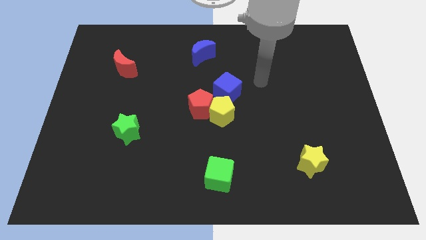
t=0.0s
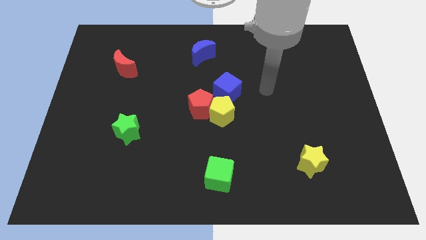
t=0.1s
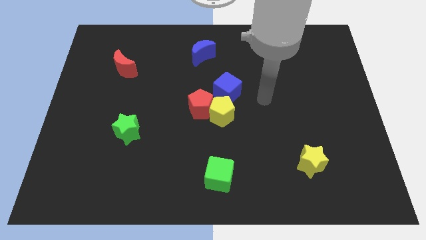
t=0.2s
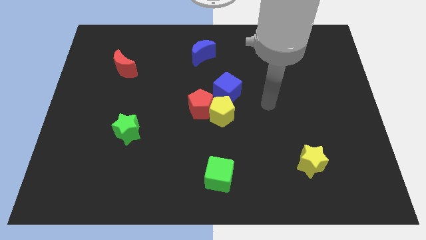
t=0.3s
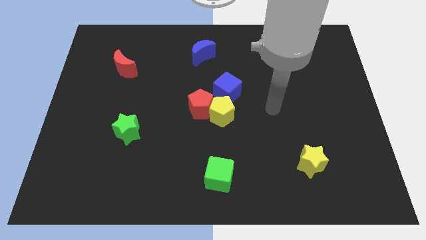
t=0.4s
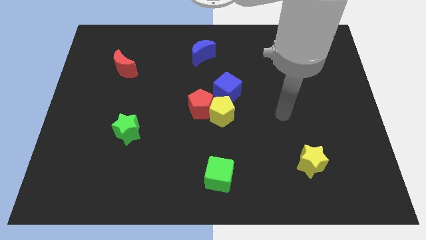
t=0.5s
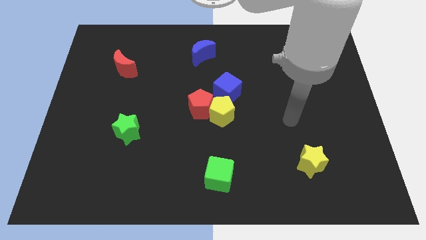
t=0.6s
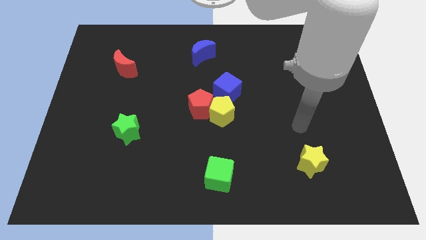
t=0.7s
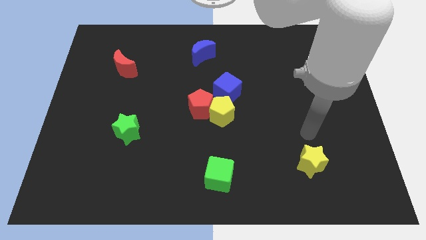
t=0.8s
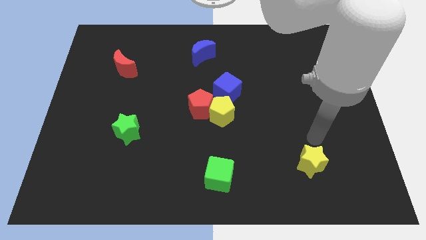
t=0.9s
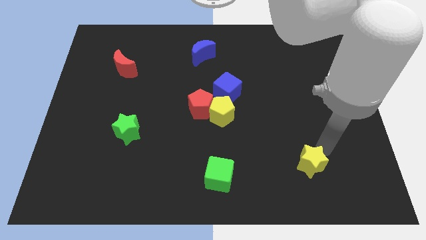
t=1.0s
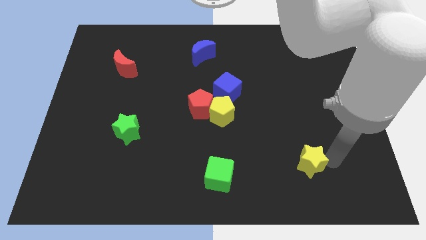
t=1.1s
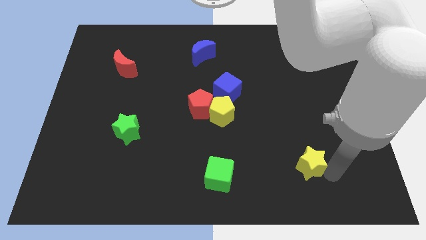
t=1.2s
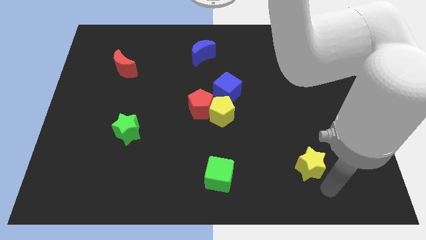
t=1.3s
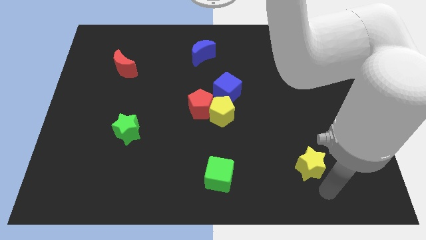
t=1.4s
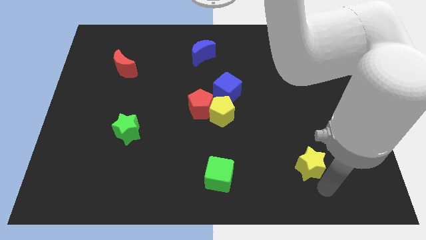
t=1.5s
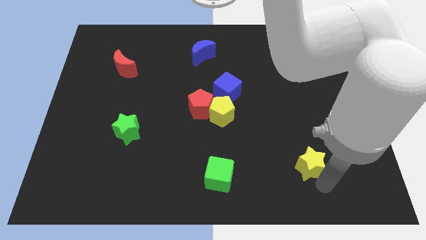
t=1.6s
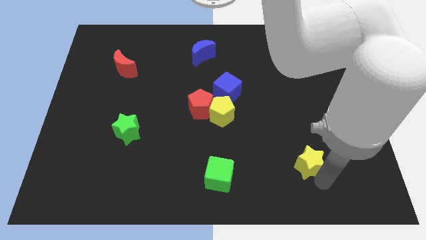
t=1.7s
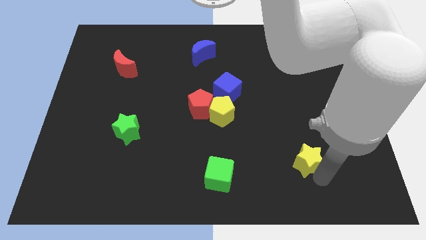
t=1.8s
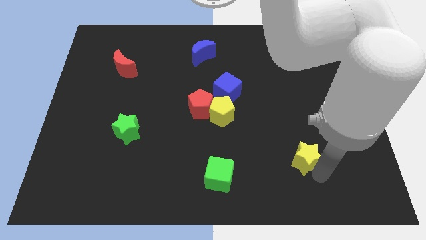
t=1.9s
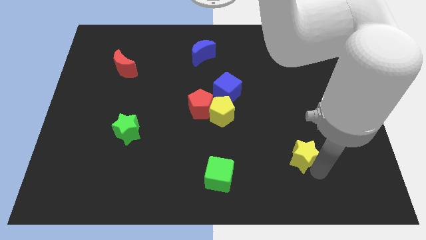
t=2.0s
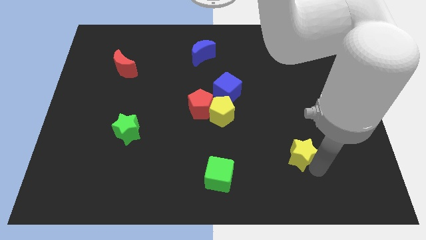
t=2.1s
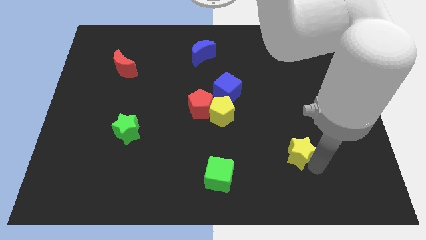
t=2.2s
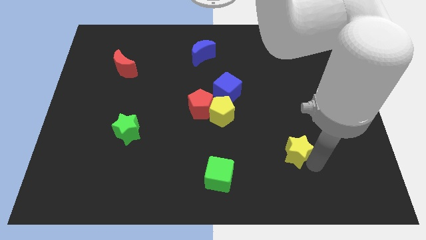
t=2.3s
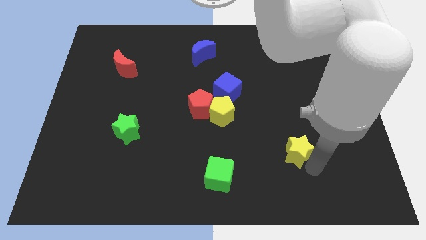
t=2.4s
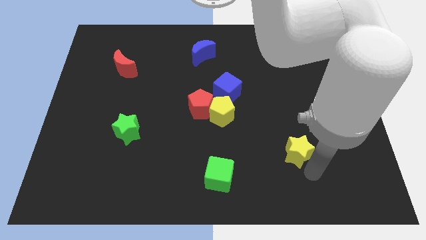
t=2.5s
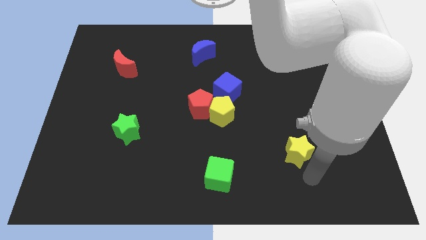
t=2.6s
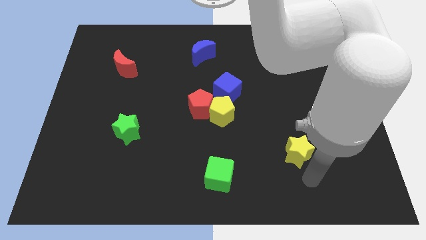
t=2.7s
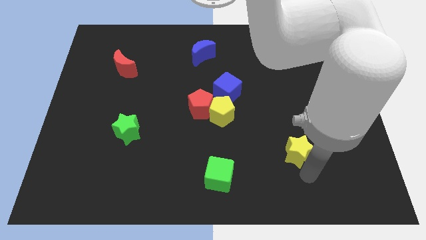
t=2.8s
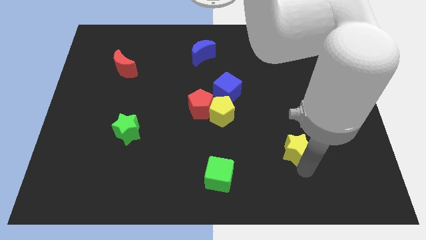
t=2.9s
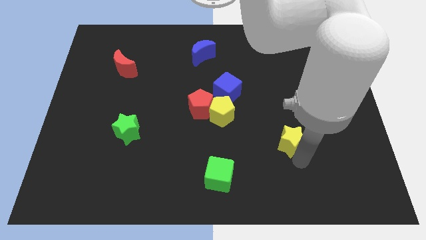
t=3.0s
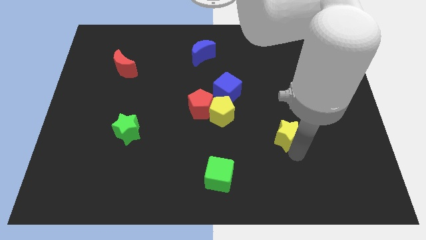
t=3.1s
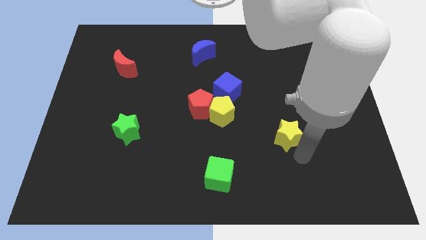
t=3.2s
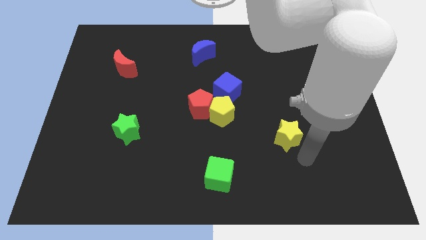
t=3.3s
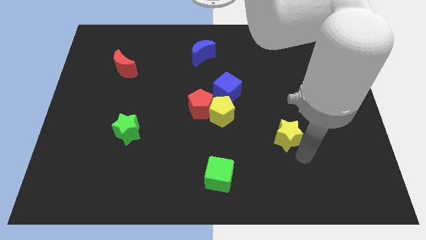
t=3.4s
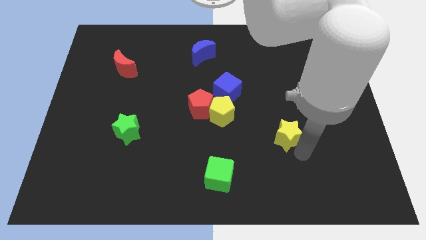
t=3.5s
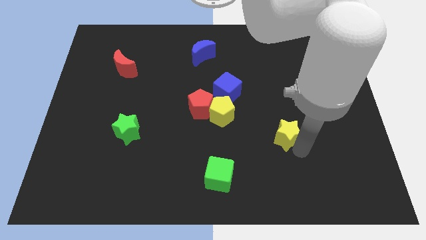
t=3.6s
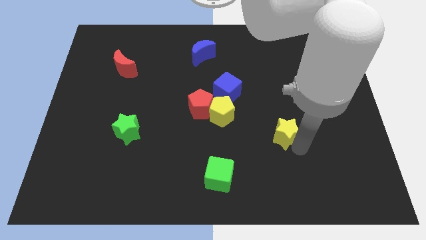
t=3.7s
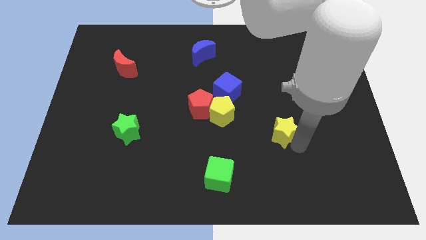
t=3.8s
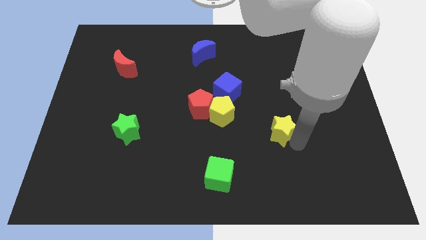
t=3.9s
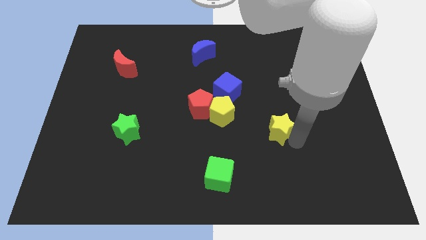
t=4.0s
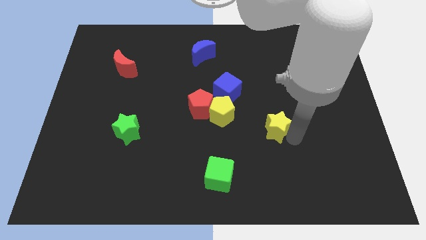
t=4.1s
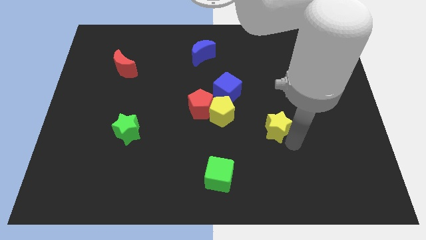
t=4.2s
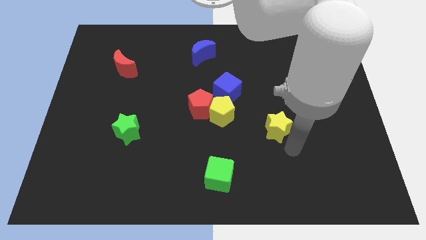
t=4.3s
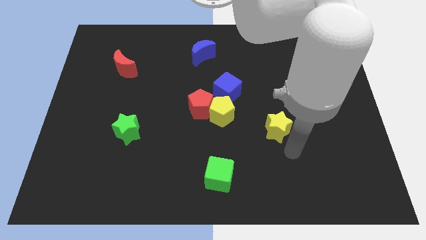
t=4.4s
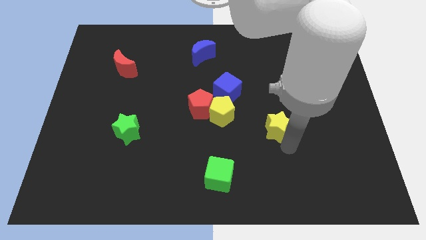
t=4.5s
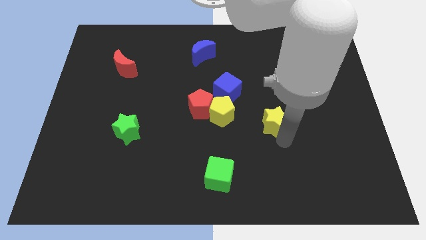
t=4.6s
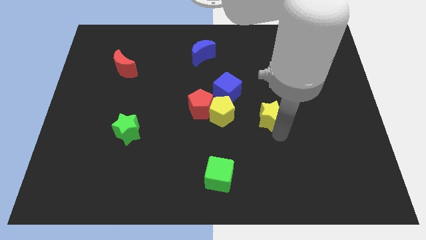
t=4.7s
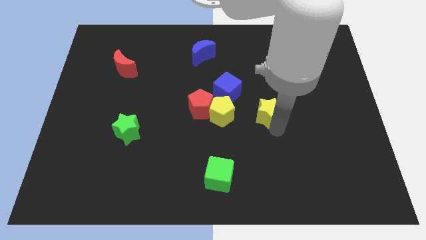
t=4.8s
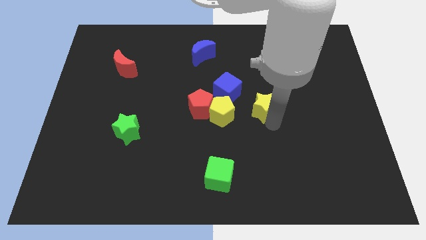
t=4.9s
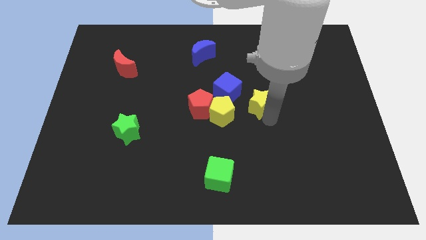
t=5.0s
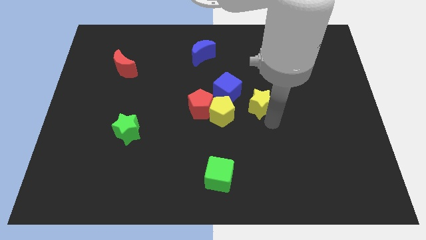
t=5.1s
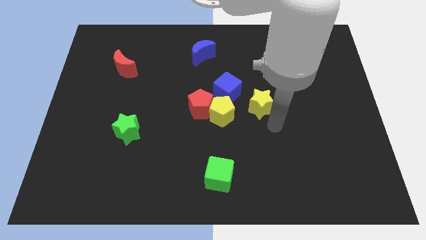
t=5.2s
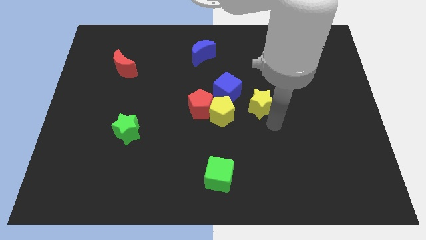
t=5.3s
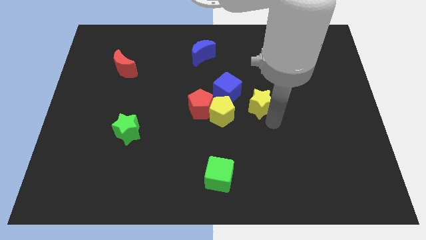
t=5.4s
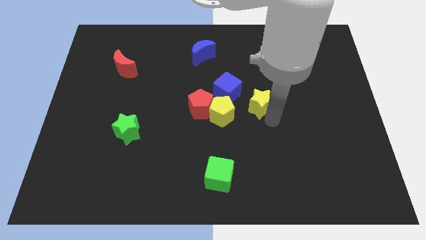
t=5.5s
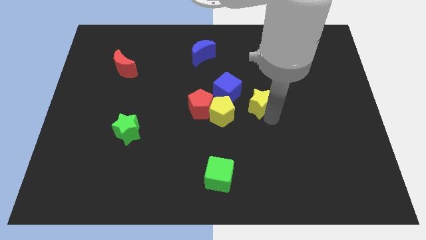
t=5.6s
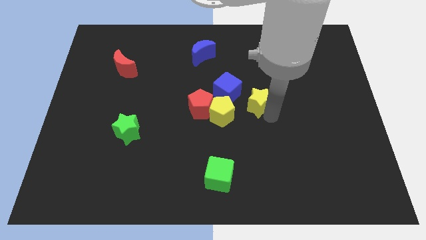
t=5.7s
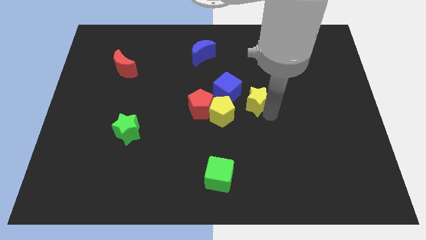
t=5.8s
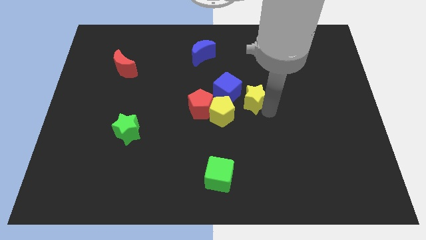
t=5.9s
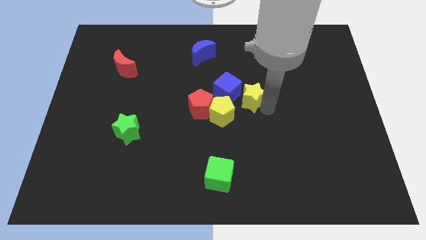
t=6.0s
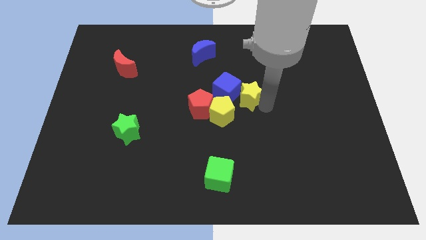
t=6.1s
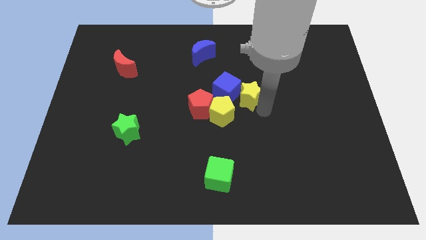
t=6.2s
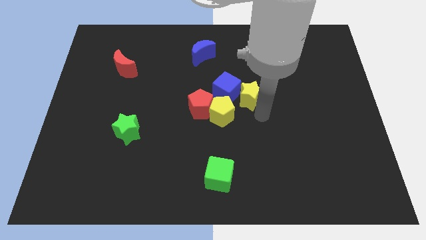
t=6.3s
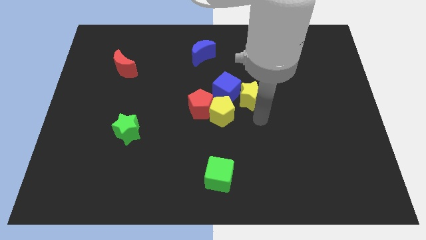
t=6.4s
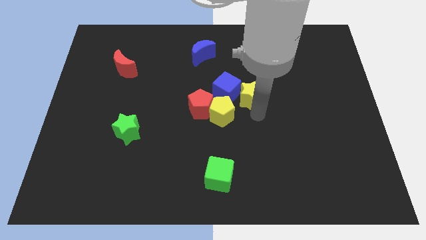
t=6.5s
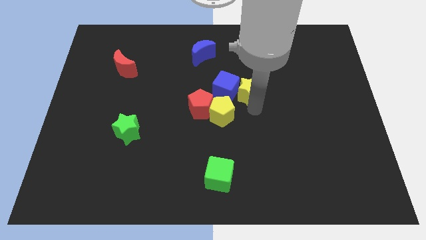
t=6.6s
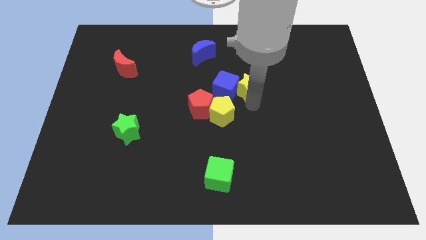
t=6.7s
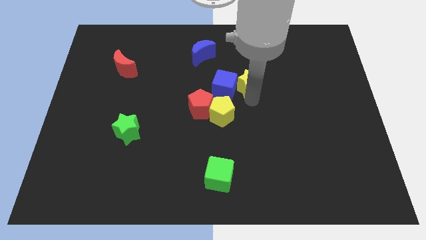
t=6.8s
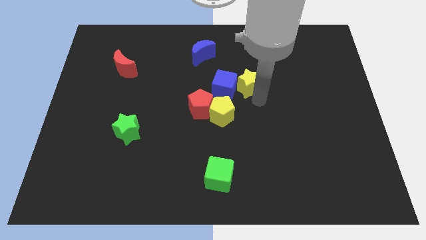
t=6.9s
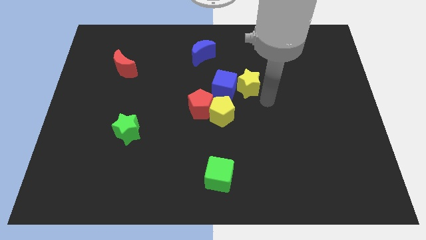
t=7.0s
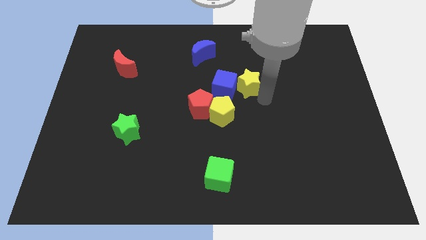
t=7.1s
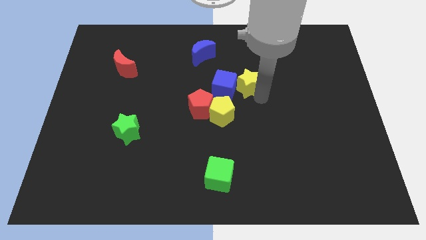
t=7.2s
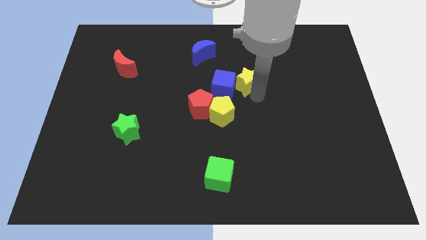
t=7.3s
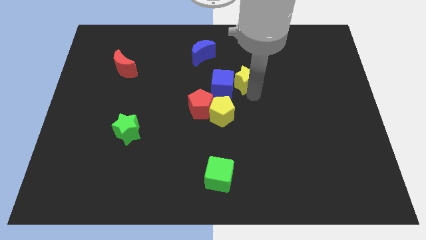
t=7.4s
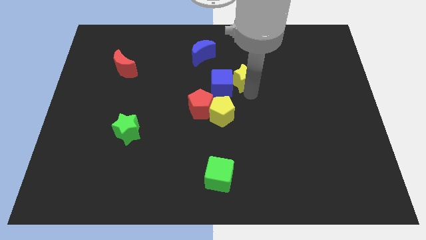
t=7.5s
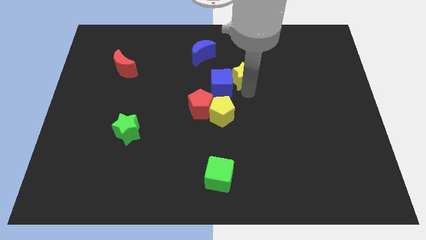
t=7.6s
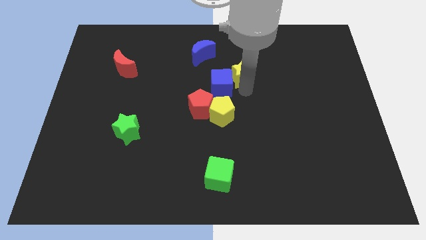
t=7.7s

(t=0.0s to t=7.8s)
slide the yellow star to the bottom right of the blue moon

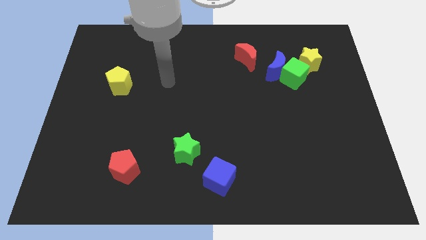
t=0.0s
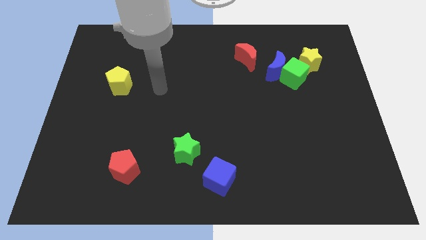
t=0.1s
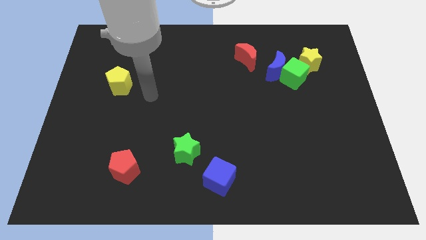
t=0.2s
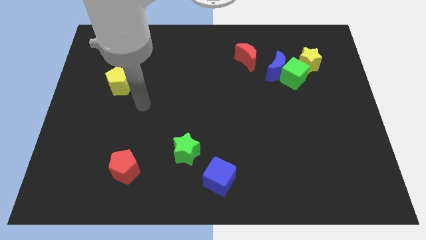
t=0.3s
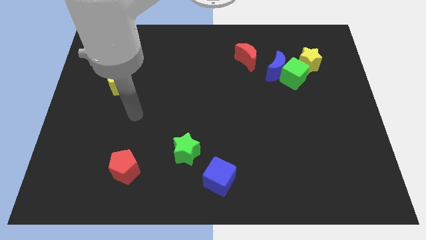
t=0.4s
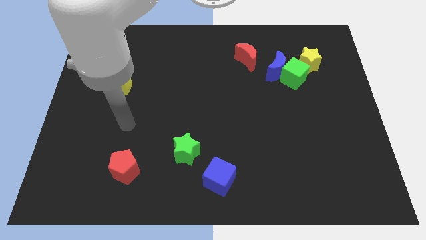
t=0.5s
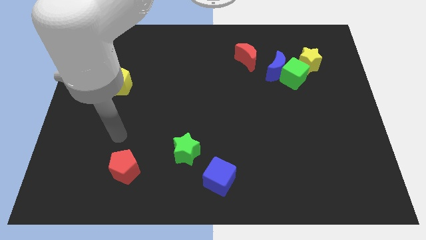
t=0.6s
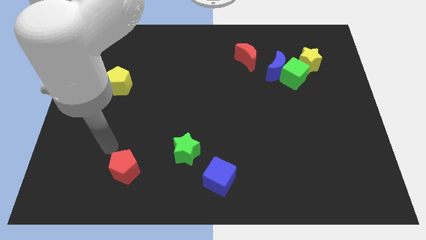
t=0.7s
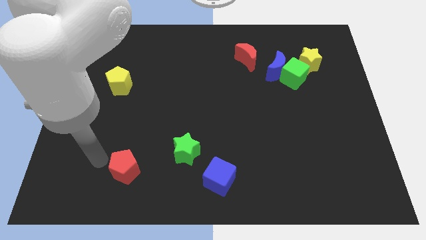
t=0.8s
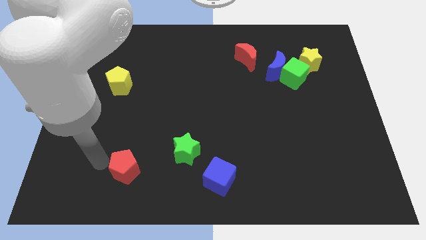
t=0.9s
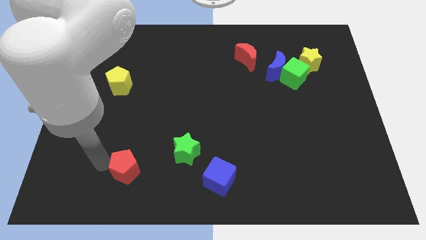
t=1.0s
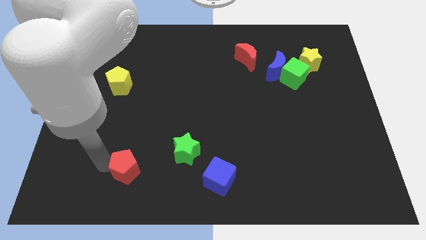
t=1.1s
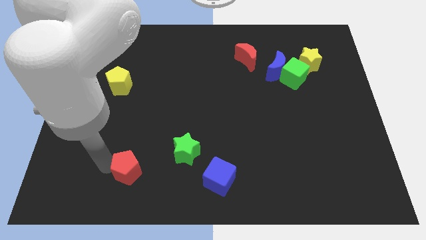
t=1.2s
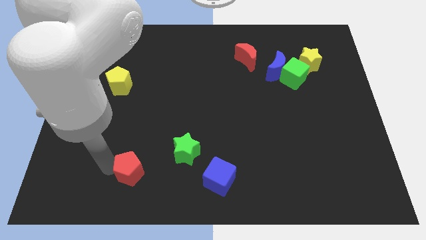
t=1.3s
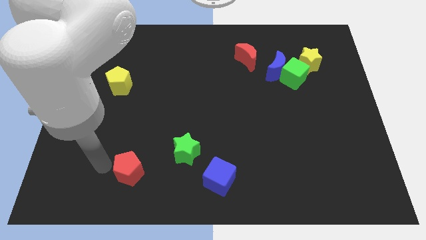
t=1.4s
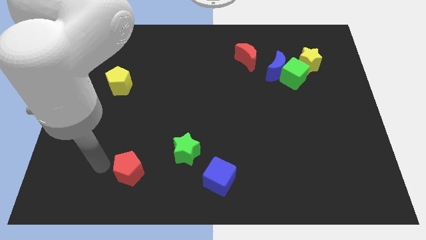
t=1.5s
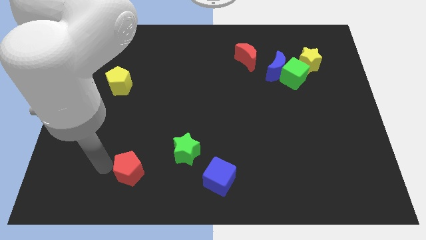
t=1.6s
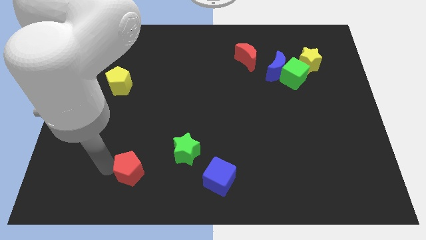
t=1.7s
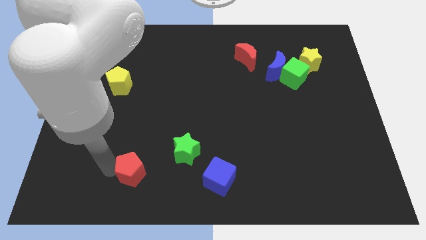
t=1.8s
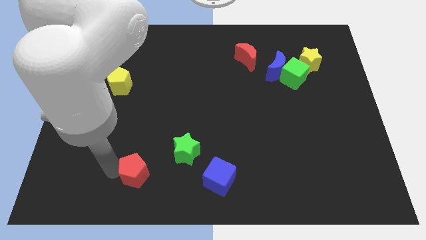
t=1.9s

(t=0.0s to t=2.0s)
put the red pentagon diagonally down and to the left of the green star
